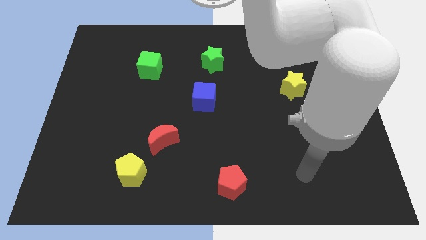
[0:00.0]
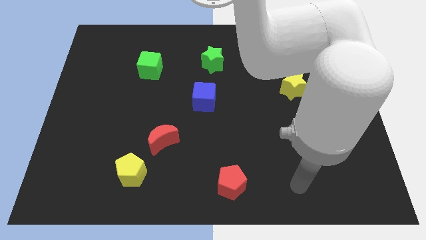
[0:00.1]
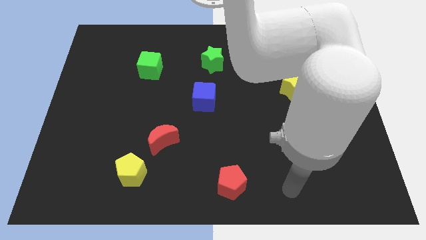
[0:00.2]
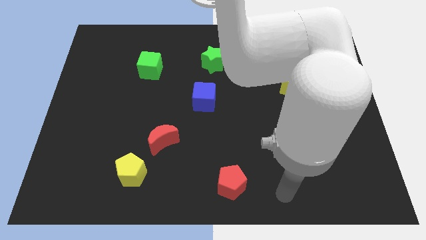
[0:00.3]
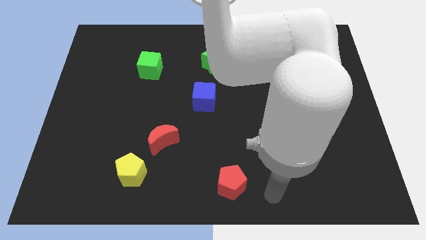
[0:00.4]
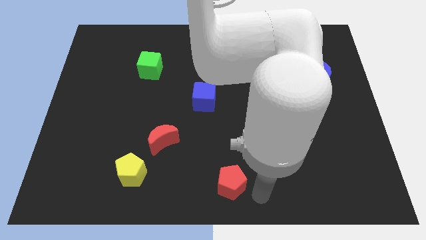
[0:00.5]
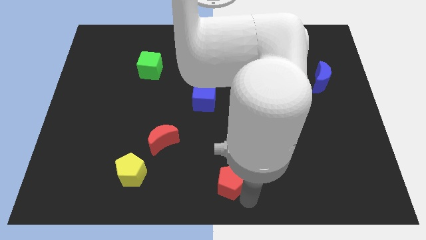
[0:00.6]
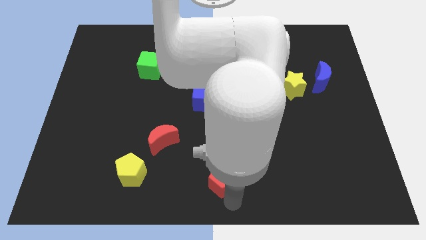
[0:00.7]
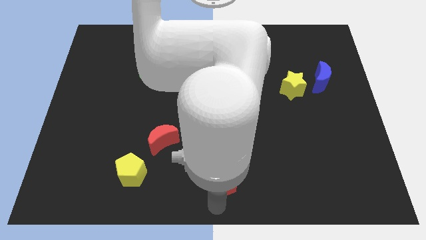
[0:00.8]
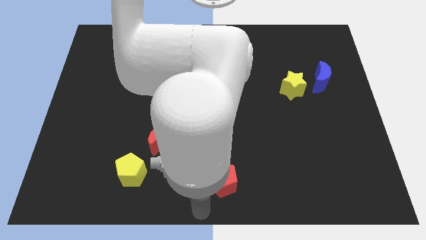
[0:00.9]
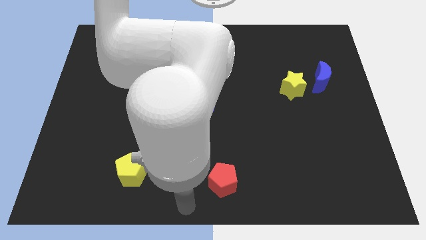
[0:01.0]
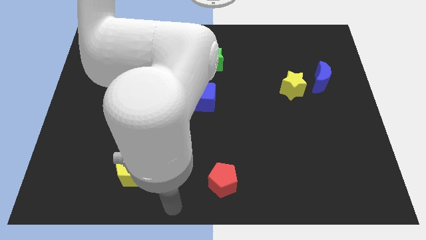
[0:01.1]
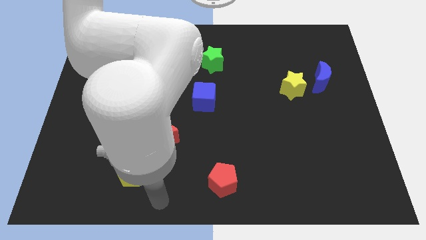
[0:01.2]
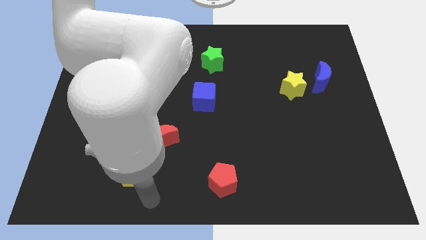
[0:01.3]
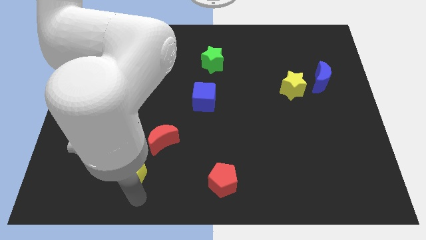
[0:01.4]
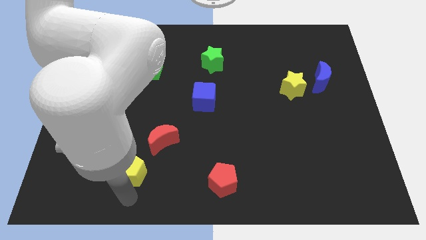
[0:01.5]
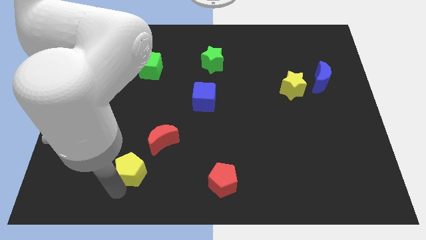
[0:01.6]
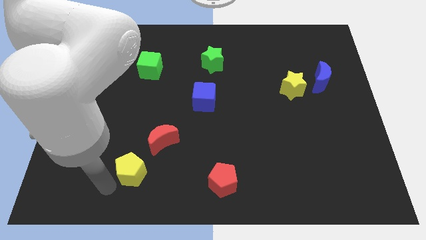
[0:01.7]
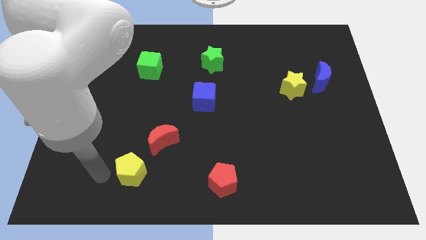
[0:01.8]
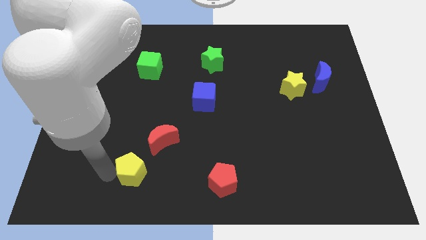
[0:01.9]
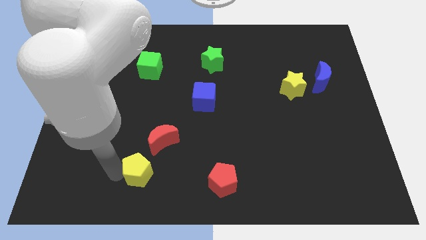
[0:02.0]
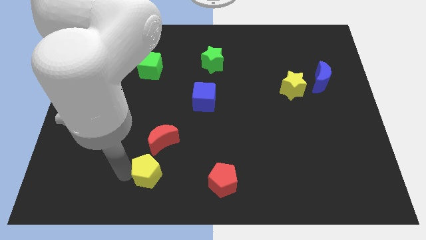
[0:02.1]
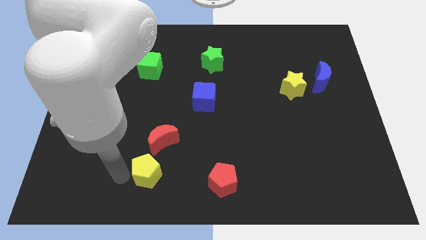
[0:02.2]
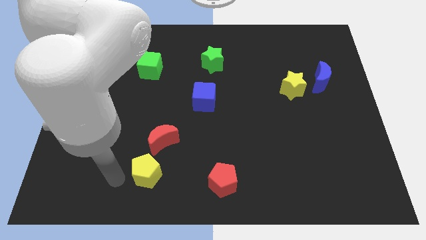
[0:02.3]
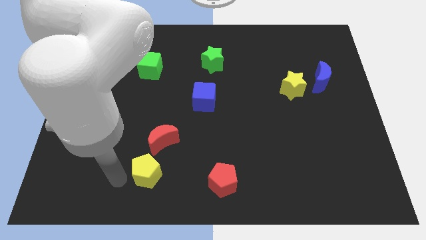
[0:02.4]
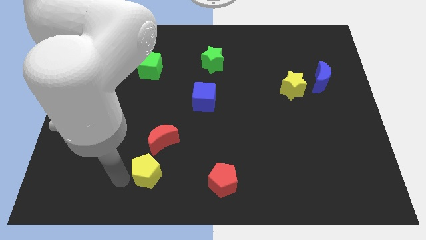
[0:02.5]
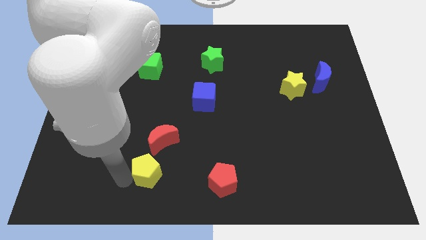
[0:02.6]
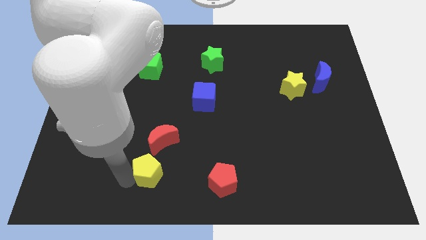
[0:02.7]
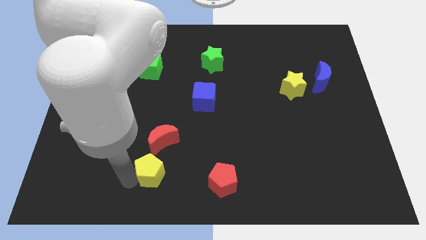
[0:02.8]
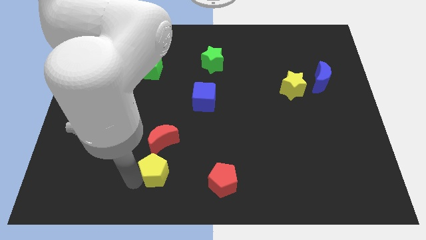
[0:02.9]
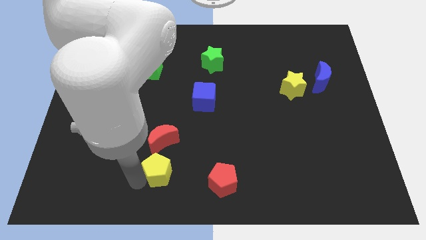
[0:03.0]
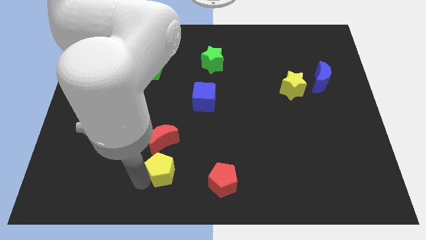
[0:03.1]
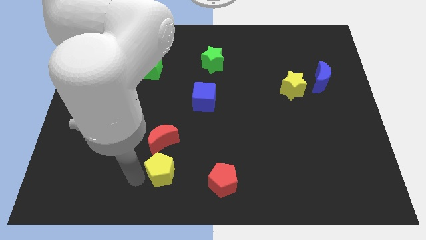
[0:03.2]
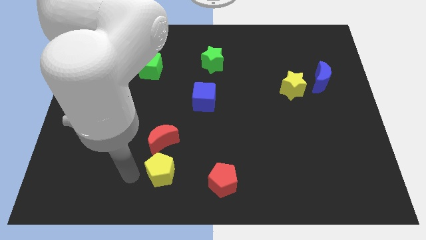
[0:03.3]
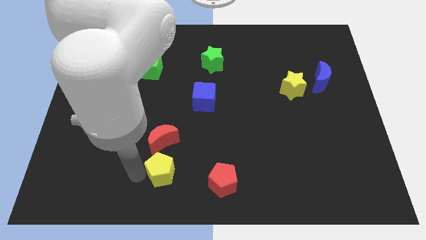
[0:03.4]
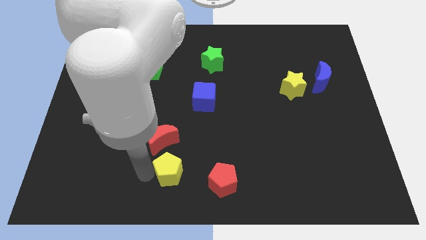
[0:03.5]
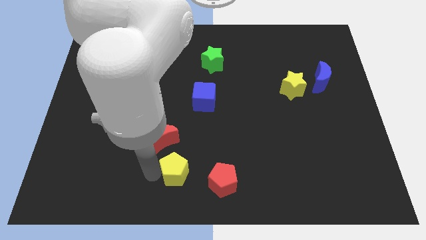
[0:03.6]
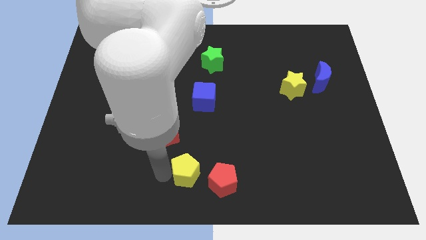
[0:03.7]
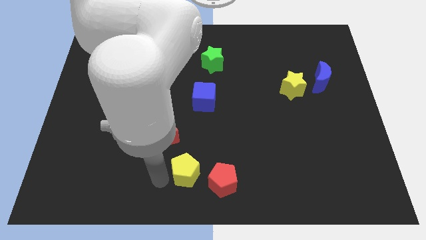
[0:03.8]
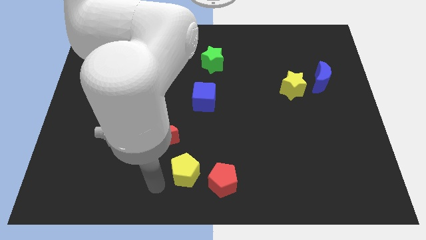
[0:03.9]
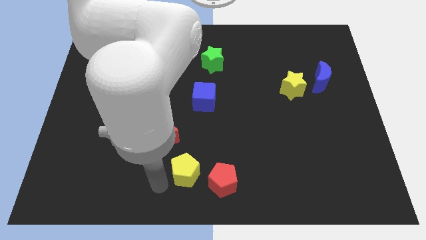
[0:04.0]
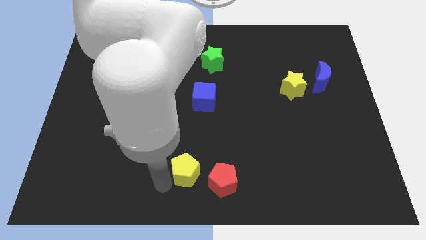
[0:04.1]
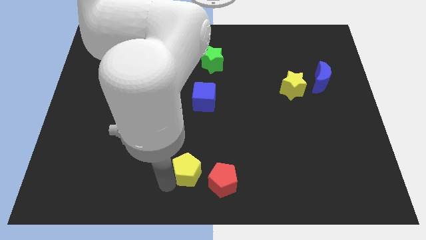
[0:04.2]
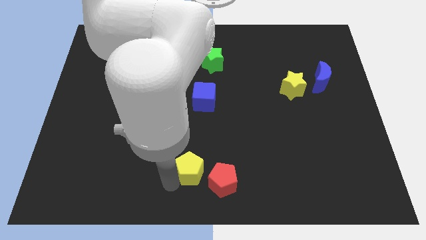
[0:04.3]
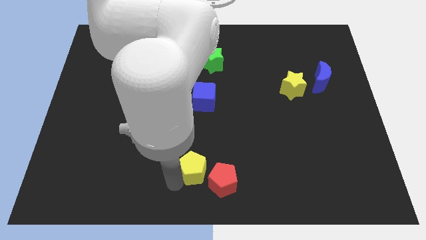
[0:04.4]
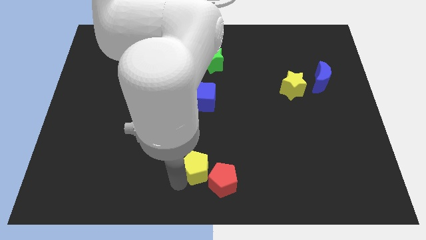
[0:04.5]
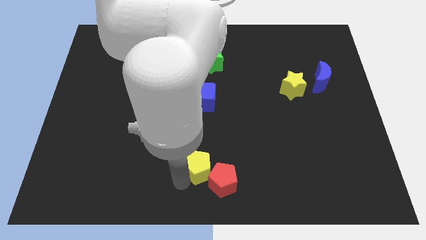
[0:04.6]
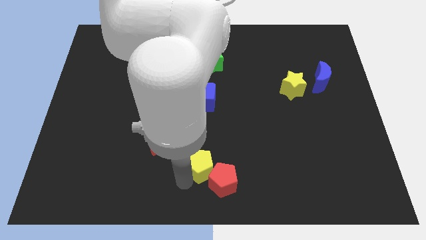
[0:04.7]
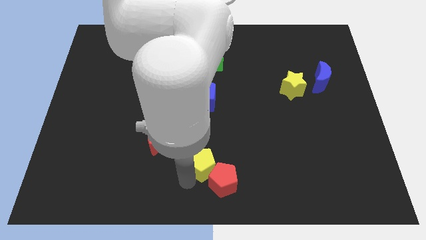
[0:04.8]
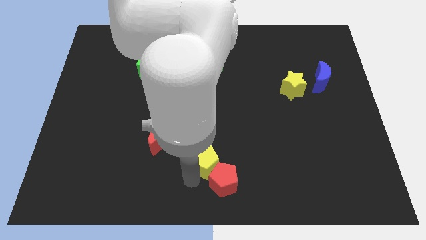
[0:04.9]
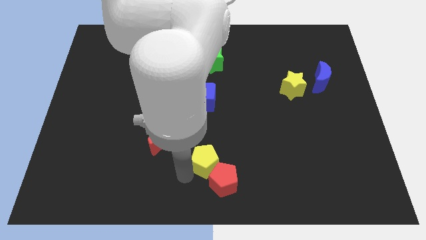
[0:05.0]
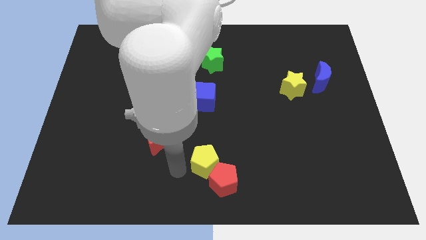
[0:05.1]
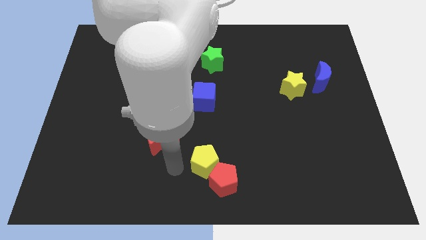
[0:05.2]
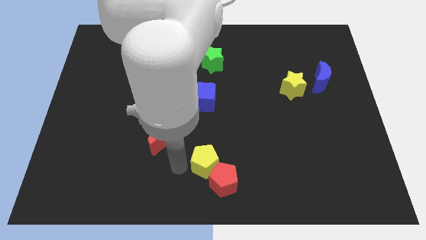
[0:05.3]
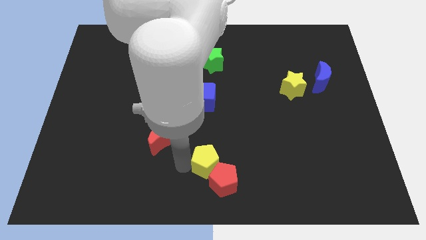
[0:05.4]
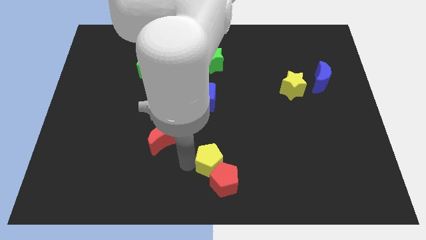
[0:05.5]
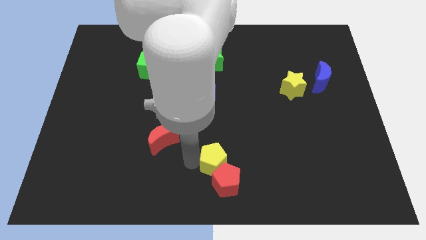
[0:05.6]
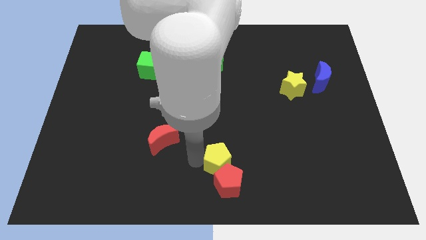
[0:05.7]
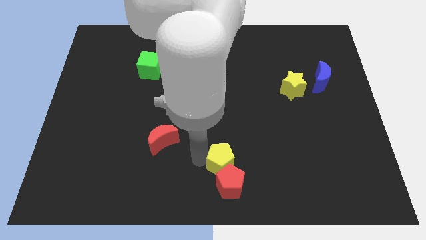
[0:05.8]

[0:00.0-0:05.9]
slide the yellow pentagon to the top right of the red pentagon

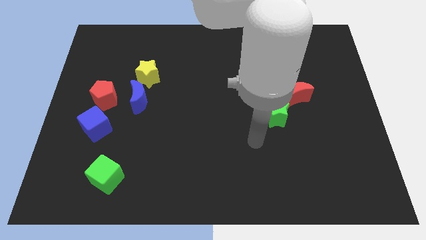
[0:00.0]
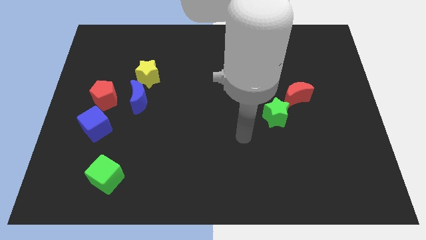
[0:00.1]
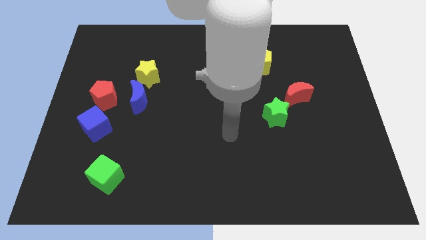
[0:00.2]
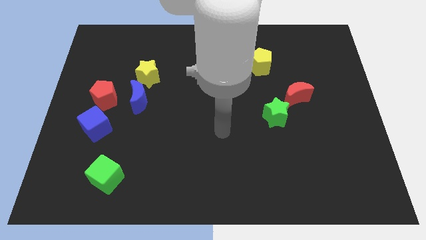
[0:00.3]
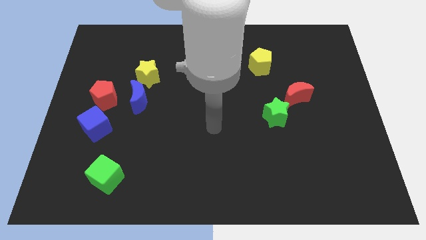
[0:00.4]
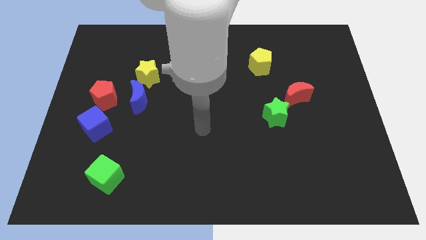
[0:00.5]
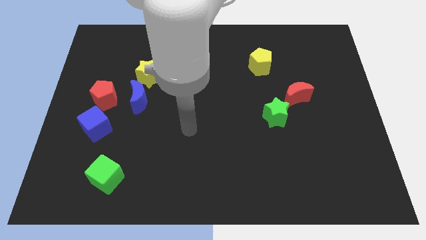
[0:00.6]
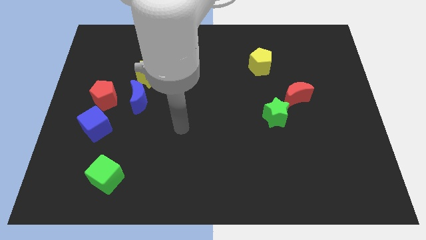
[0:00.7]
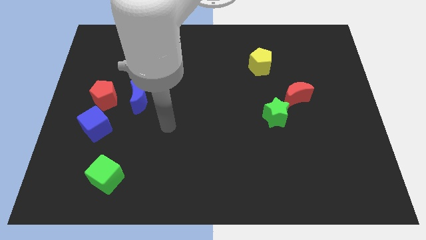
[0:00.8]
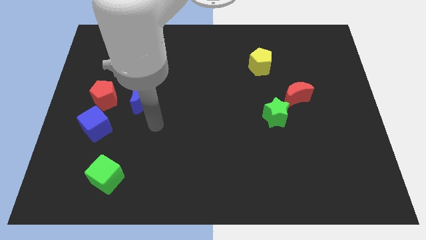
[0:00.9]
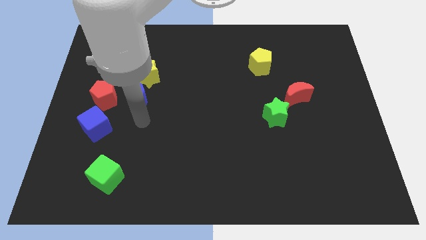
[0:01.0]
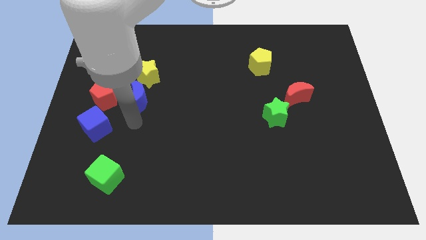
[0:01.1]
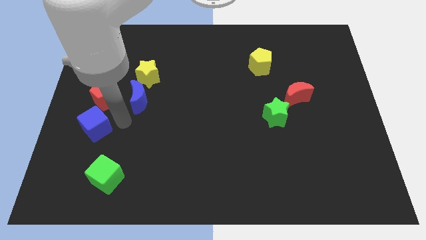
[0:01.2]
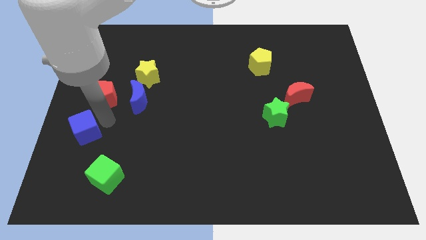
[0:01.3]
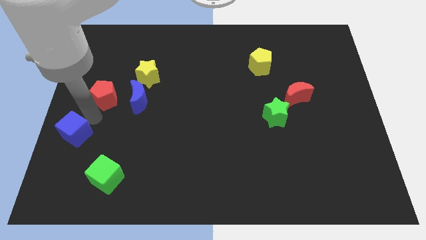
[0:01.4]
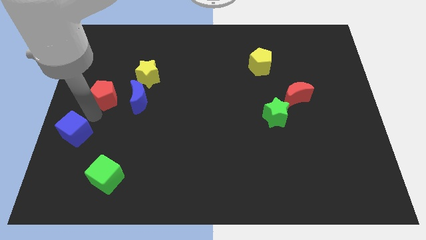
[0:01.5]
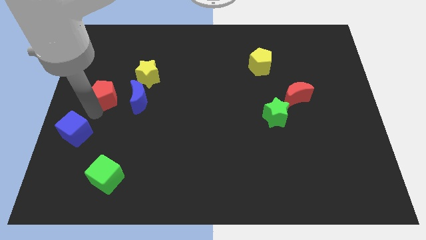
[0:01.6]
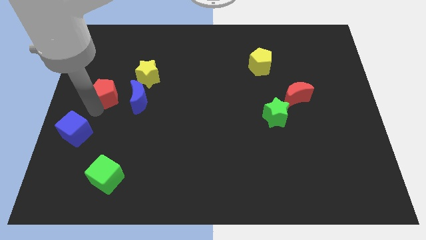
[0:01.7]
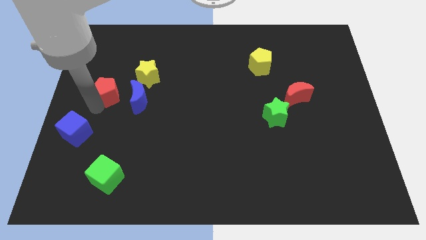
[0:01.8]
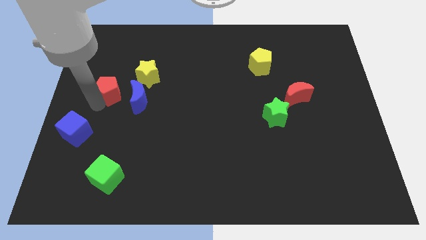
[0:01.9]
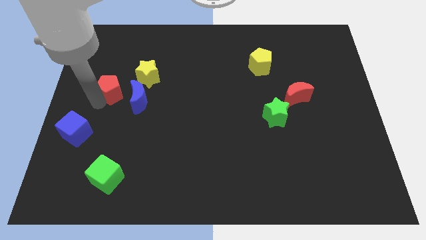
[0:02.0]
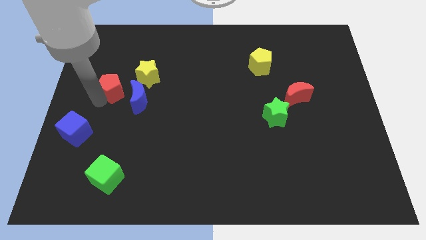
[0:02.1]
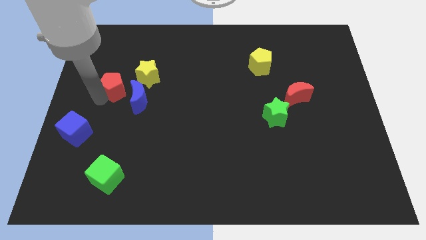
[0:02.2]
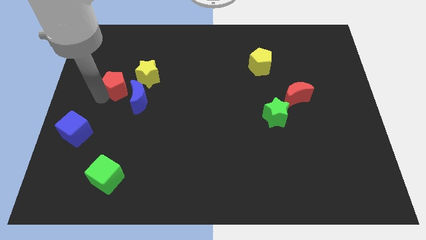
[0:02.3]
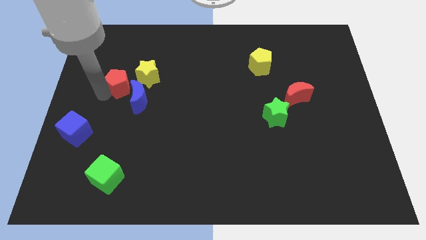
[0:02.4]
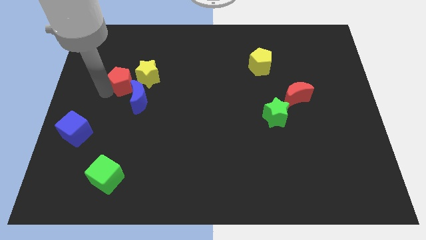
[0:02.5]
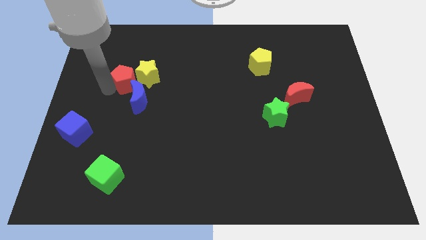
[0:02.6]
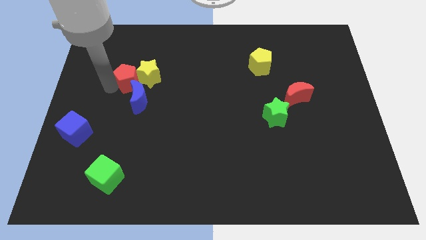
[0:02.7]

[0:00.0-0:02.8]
put the red pentagon diagonally up and to the left of the yellow star
